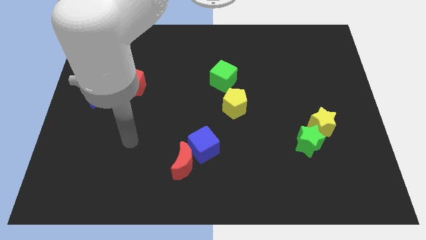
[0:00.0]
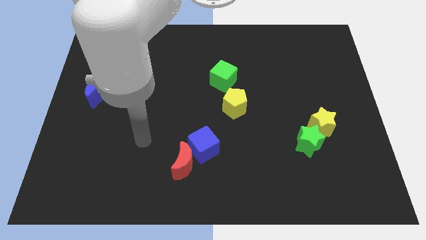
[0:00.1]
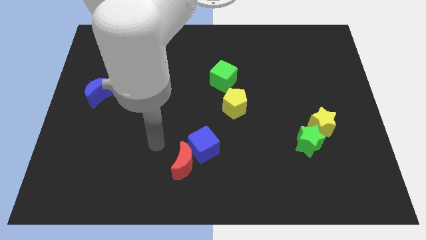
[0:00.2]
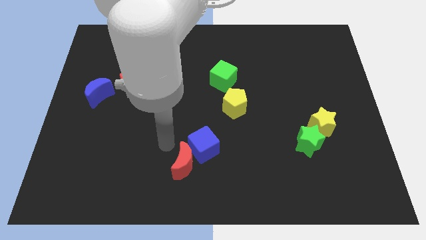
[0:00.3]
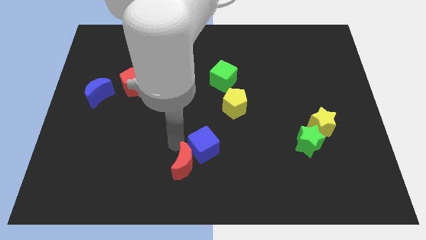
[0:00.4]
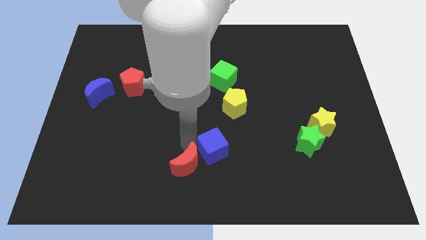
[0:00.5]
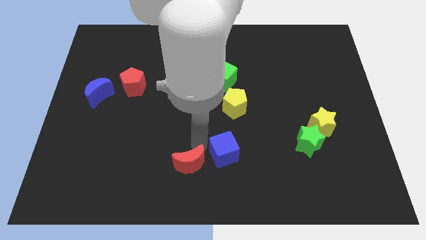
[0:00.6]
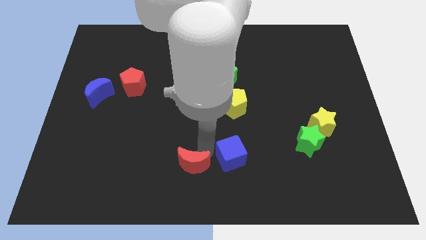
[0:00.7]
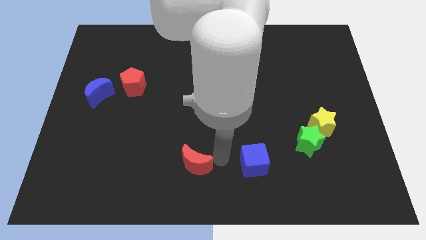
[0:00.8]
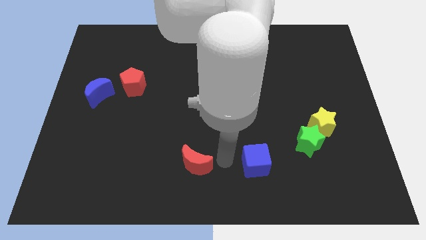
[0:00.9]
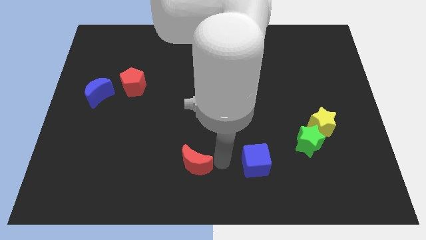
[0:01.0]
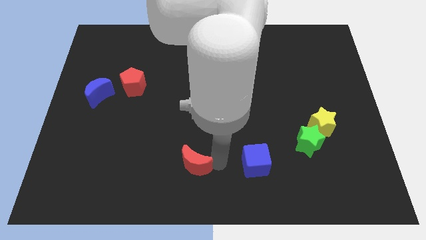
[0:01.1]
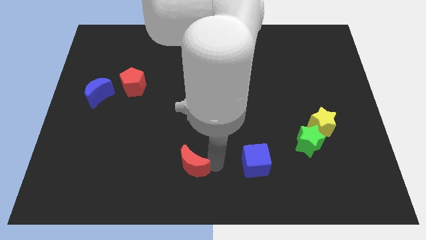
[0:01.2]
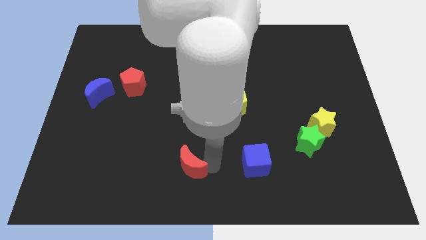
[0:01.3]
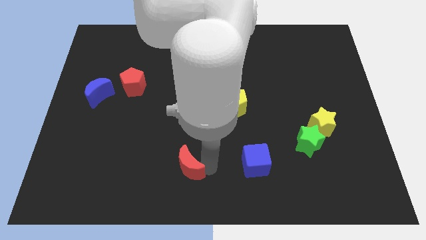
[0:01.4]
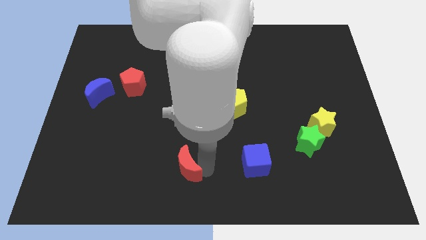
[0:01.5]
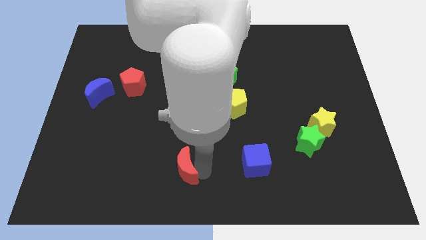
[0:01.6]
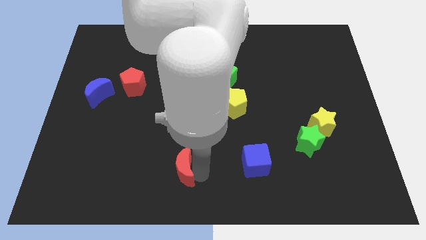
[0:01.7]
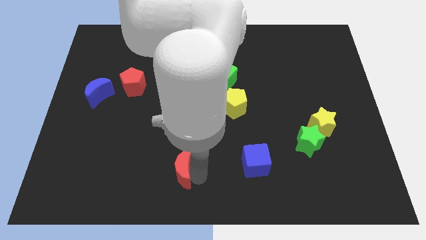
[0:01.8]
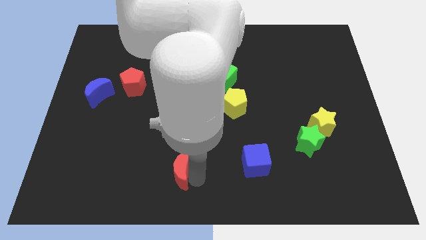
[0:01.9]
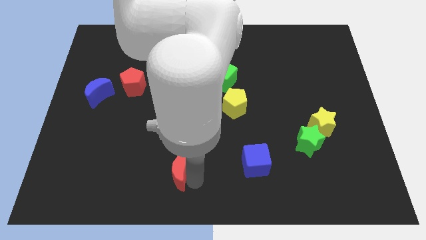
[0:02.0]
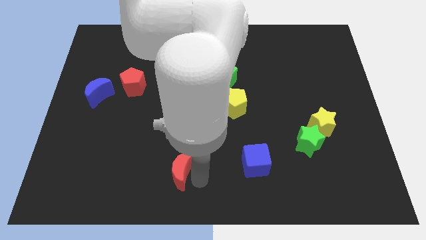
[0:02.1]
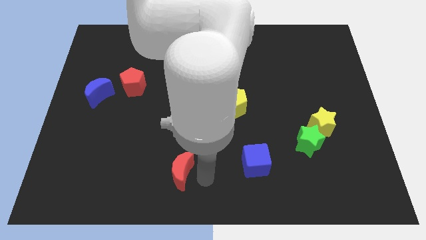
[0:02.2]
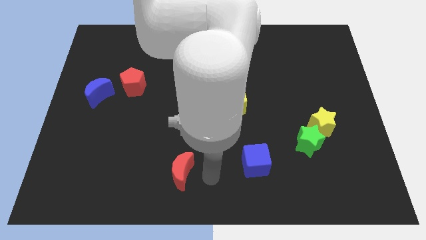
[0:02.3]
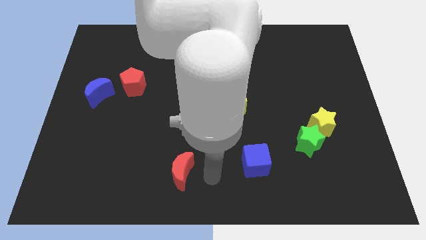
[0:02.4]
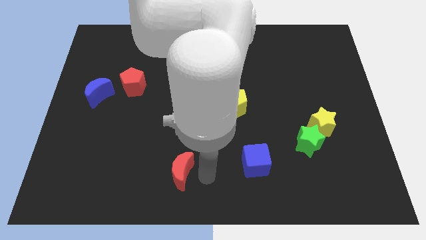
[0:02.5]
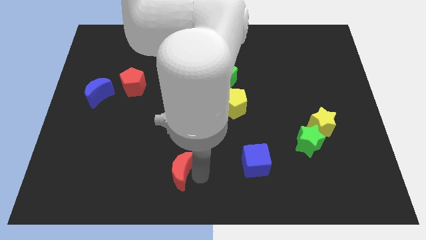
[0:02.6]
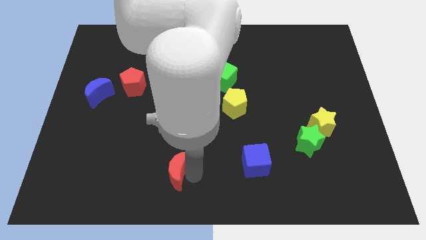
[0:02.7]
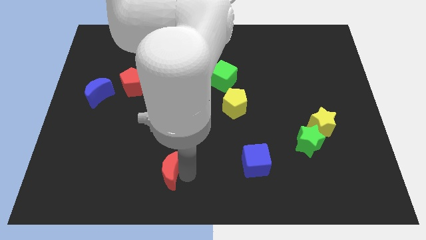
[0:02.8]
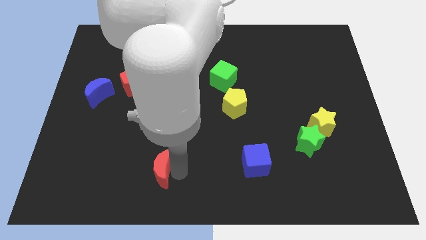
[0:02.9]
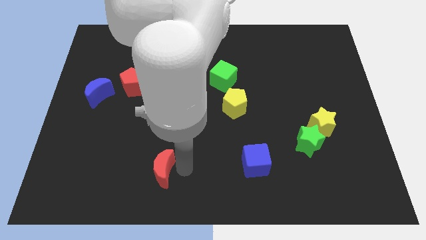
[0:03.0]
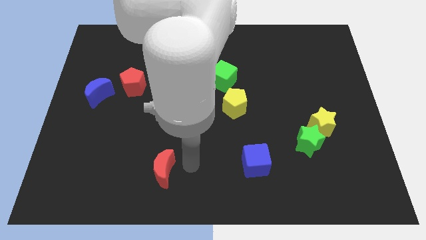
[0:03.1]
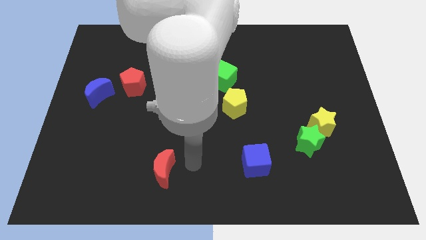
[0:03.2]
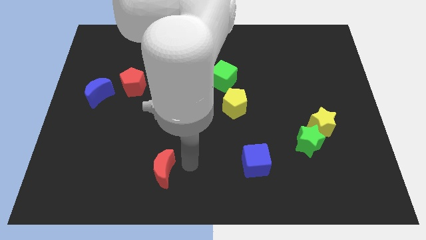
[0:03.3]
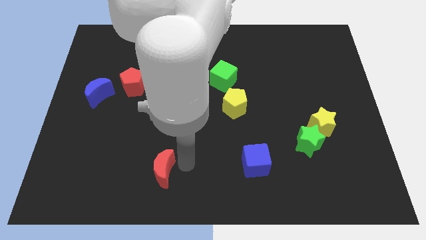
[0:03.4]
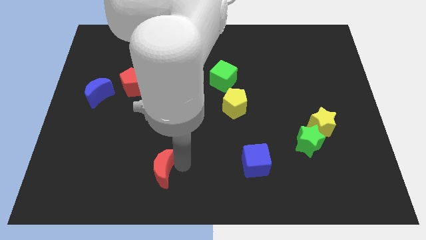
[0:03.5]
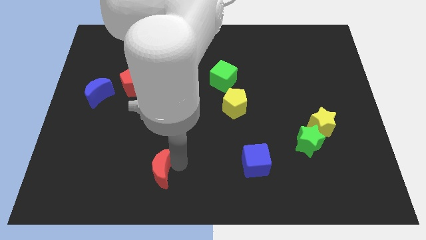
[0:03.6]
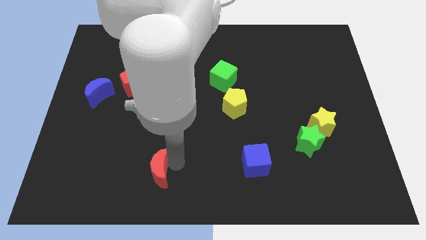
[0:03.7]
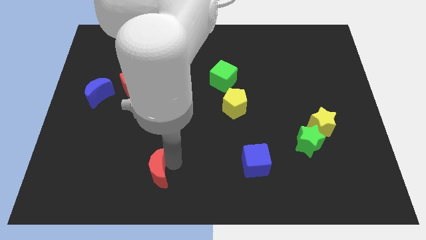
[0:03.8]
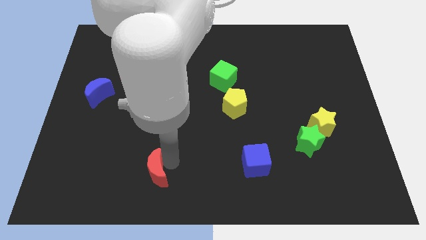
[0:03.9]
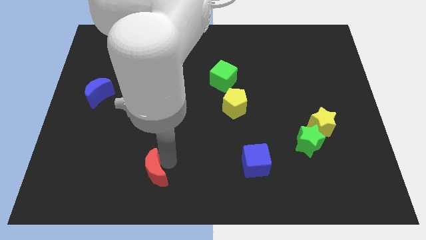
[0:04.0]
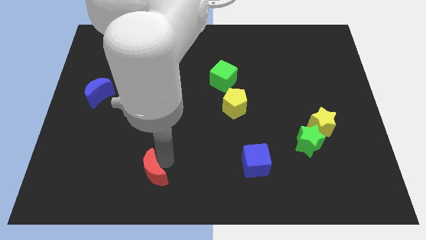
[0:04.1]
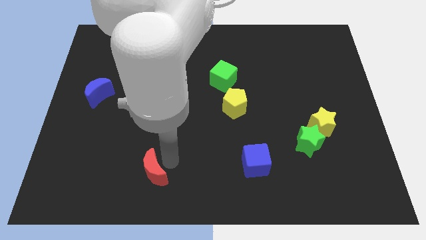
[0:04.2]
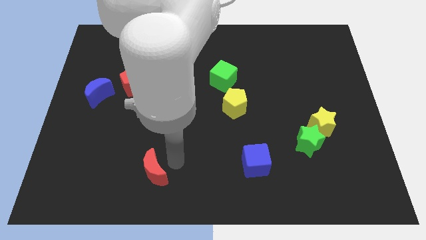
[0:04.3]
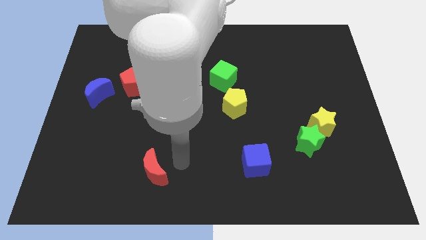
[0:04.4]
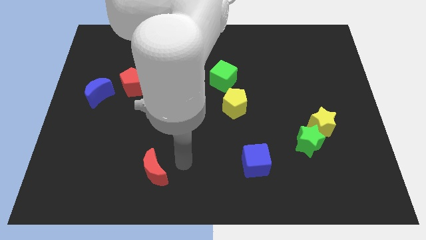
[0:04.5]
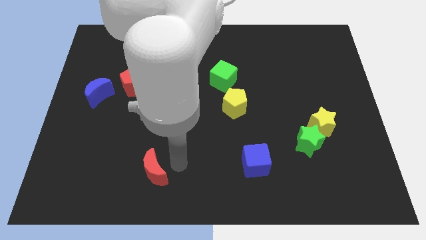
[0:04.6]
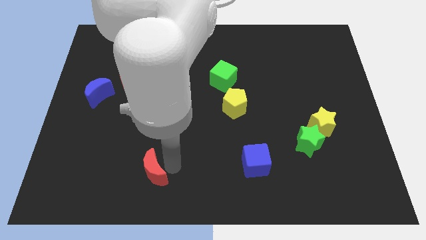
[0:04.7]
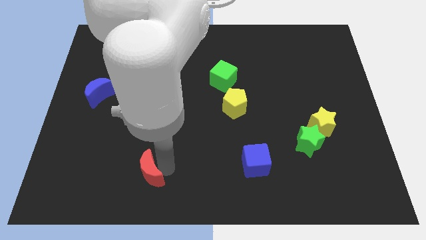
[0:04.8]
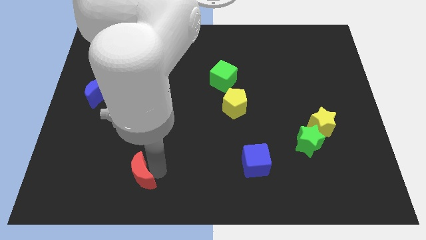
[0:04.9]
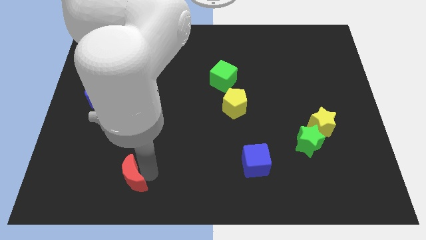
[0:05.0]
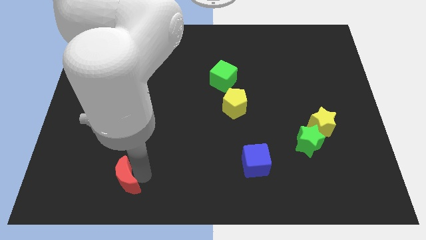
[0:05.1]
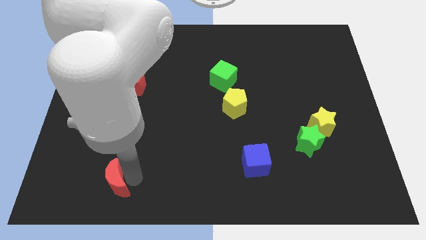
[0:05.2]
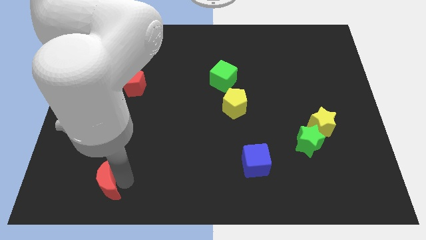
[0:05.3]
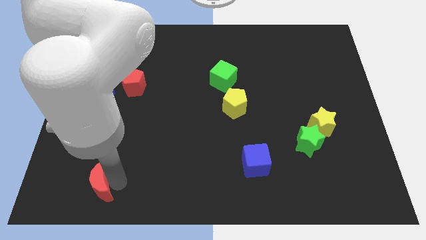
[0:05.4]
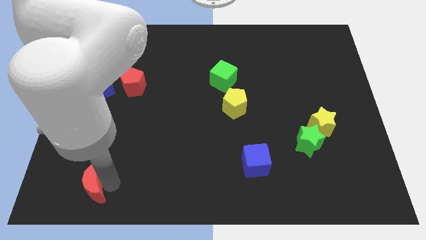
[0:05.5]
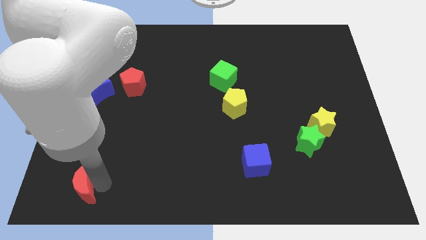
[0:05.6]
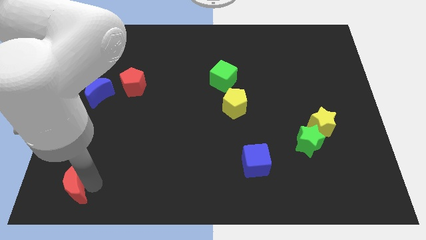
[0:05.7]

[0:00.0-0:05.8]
put the red moon to the bottom left
